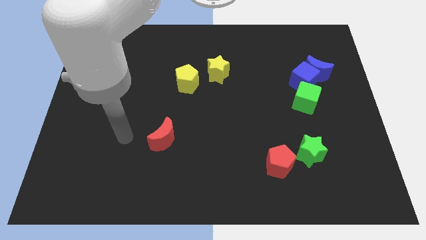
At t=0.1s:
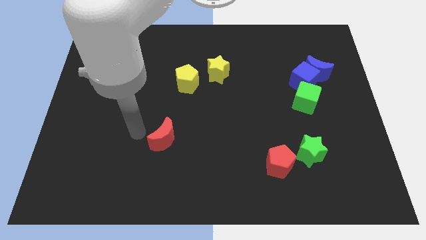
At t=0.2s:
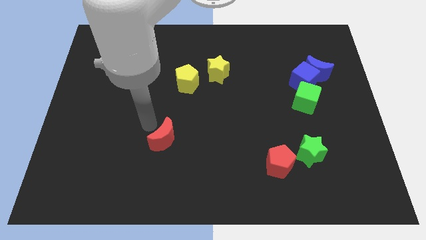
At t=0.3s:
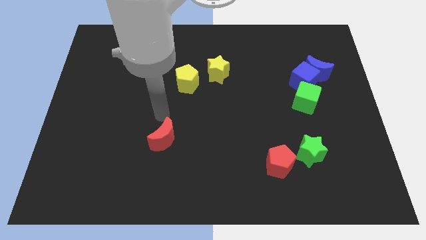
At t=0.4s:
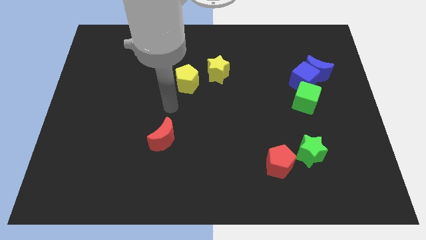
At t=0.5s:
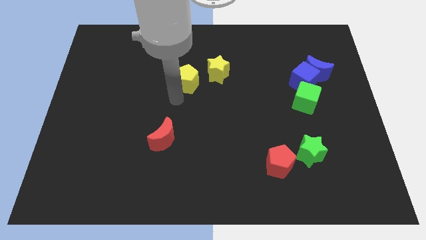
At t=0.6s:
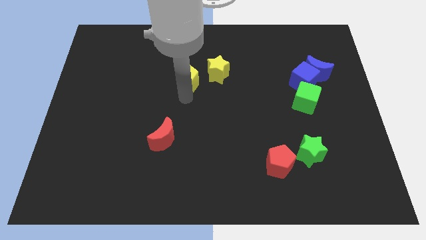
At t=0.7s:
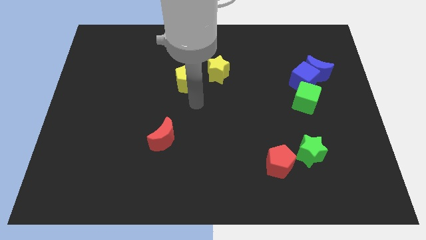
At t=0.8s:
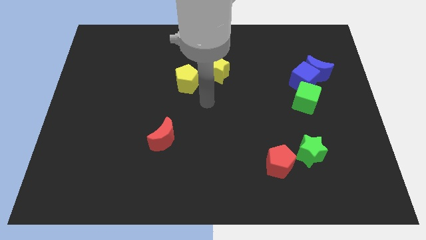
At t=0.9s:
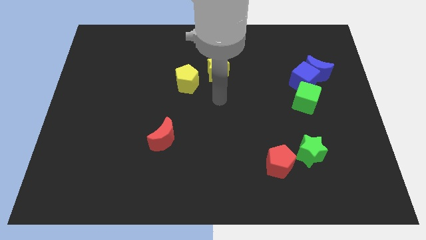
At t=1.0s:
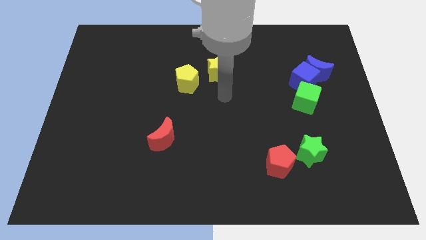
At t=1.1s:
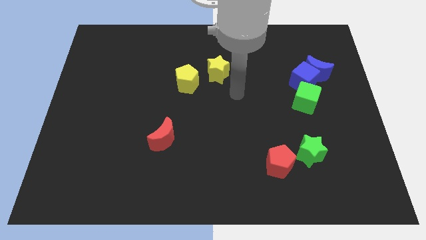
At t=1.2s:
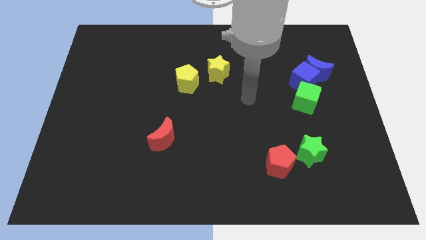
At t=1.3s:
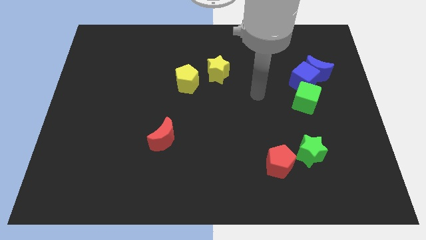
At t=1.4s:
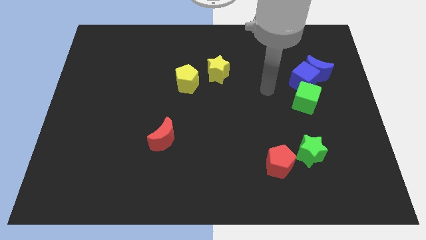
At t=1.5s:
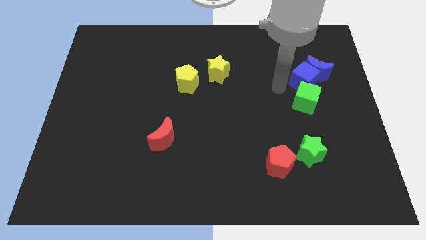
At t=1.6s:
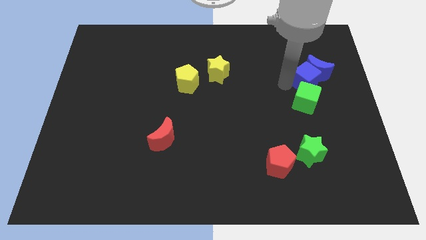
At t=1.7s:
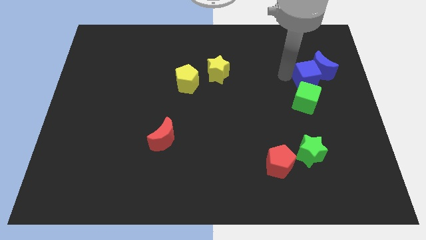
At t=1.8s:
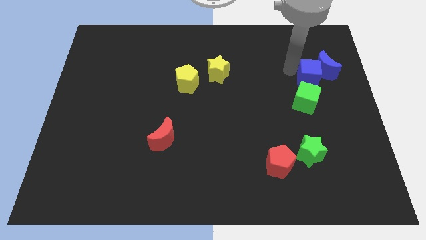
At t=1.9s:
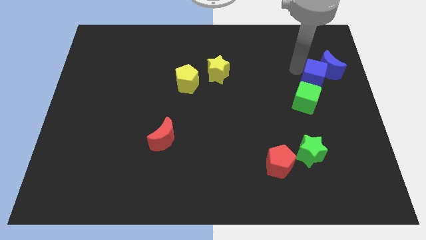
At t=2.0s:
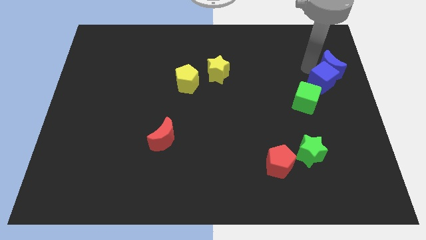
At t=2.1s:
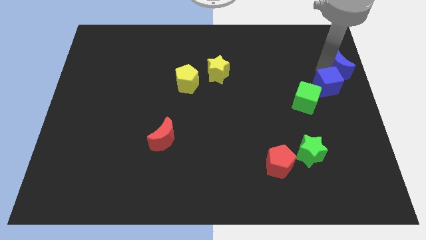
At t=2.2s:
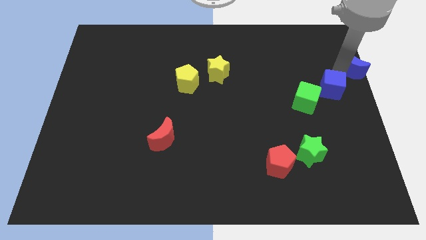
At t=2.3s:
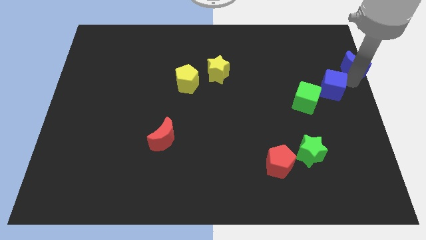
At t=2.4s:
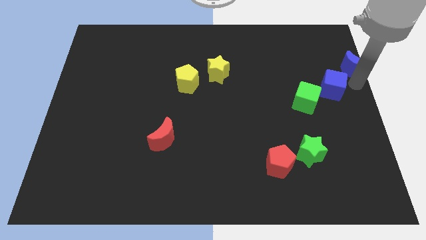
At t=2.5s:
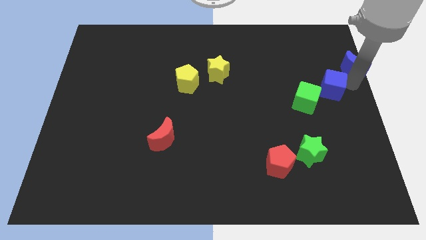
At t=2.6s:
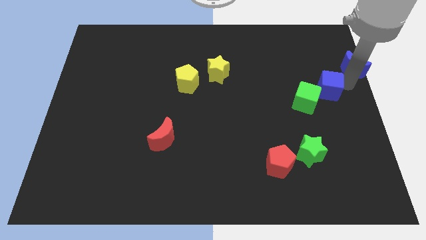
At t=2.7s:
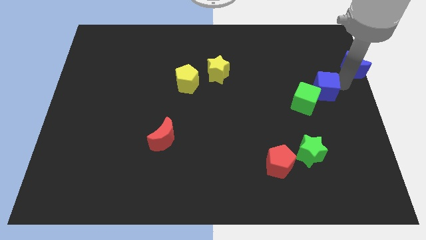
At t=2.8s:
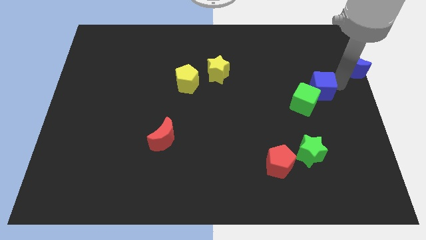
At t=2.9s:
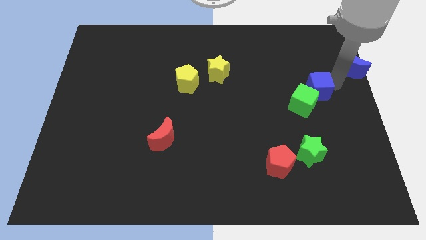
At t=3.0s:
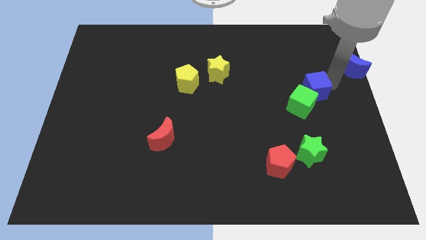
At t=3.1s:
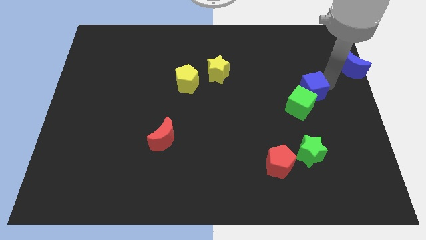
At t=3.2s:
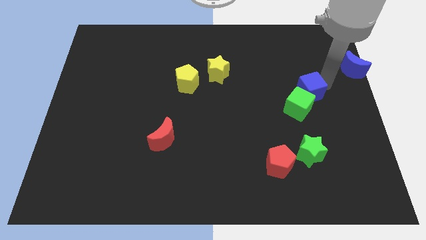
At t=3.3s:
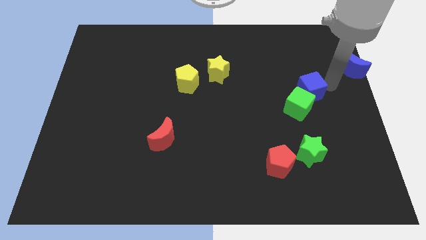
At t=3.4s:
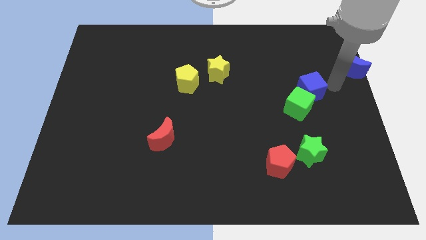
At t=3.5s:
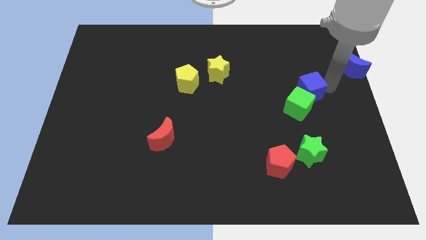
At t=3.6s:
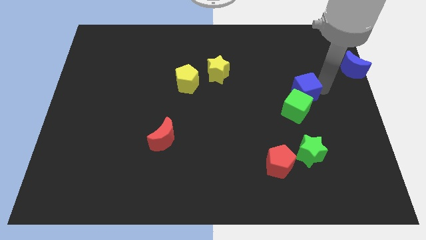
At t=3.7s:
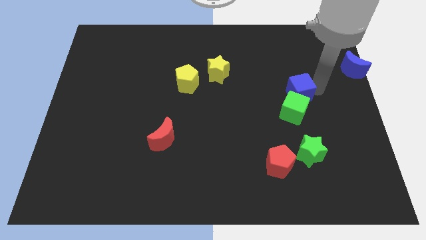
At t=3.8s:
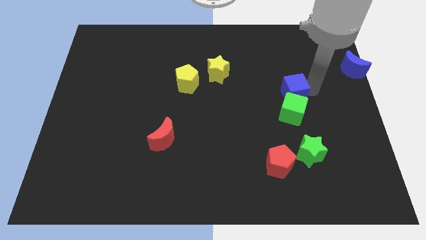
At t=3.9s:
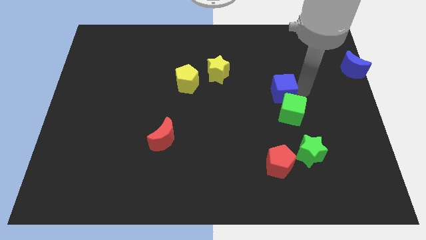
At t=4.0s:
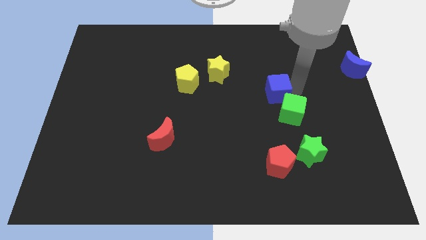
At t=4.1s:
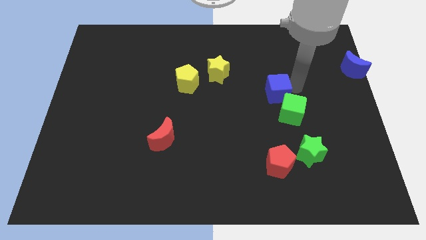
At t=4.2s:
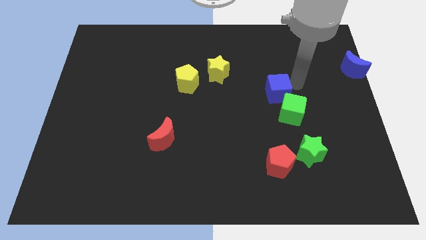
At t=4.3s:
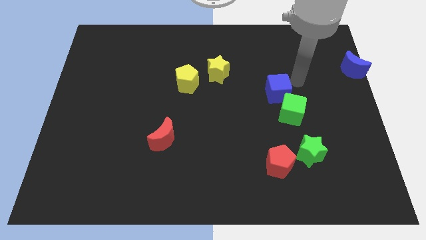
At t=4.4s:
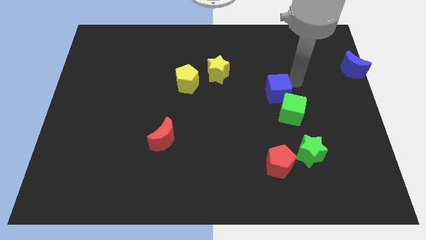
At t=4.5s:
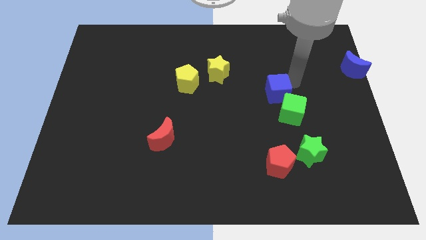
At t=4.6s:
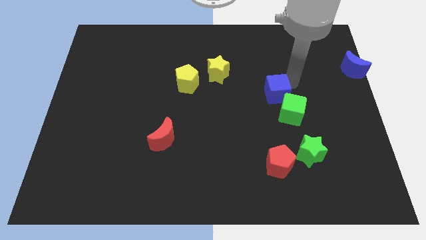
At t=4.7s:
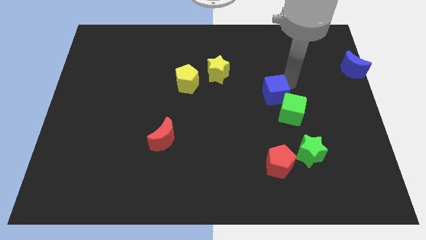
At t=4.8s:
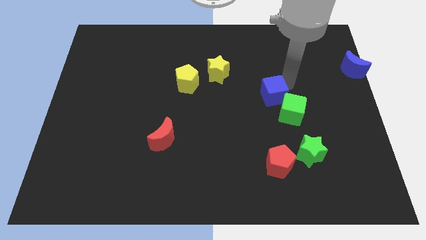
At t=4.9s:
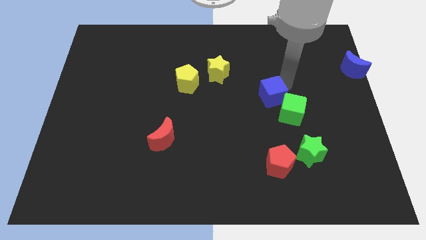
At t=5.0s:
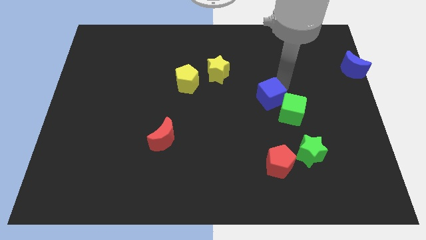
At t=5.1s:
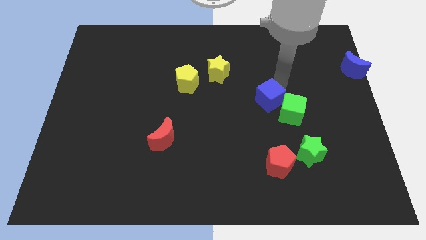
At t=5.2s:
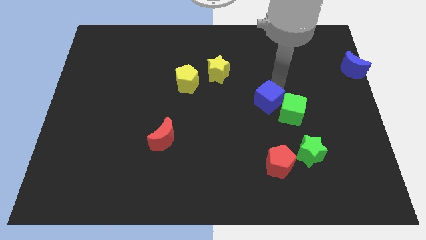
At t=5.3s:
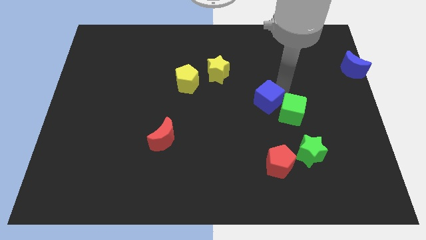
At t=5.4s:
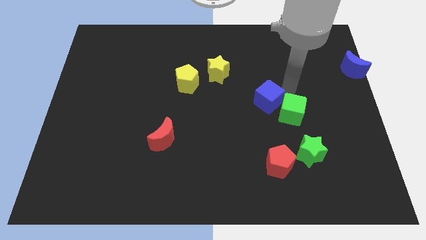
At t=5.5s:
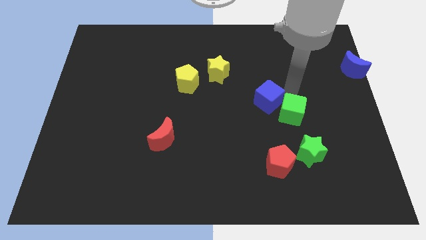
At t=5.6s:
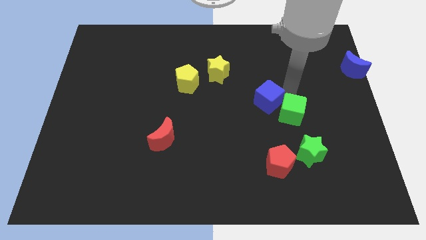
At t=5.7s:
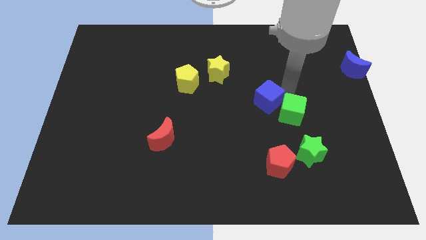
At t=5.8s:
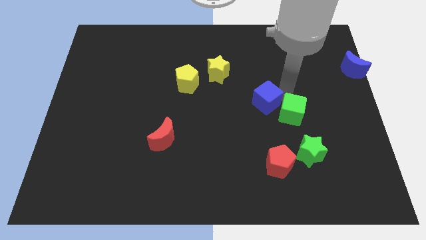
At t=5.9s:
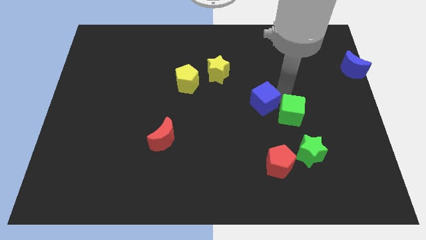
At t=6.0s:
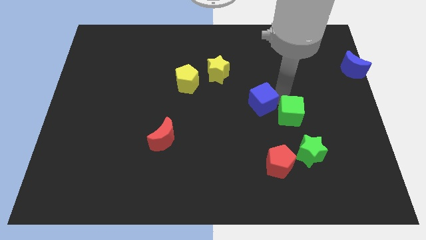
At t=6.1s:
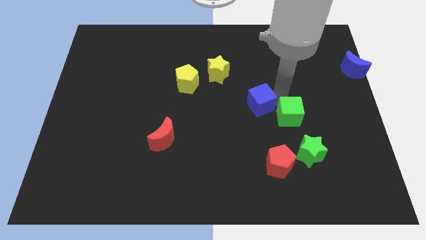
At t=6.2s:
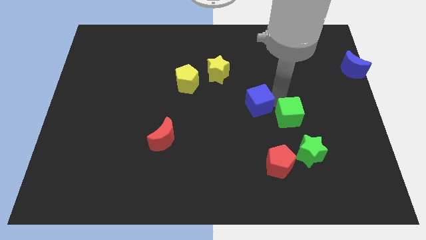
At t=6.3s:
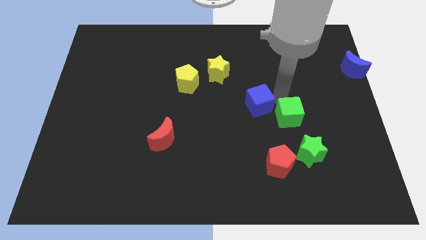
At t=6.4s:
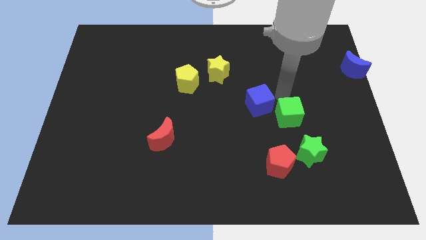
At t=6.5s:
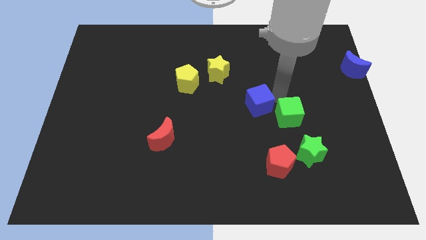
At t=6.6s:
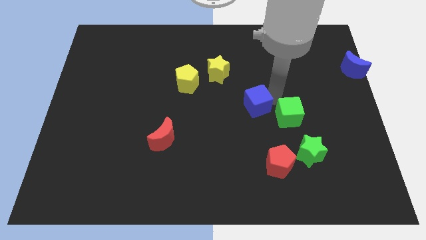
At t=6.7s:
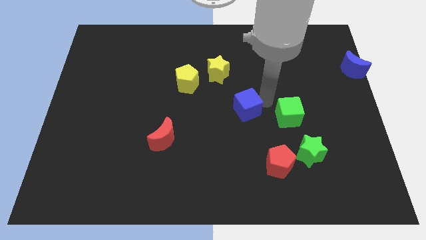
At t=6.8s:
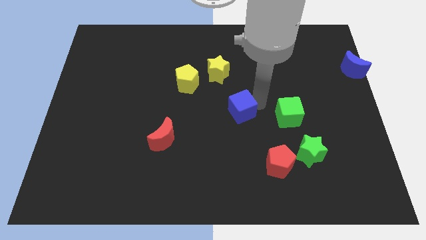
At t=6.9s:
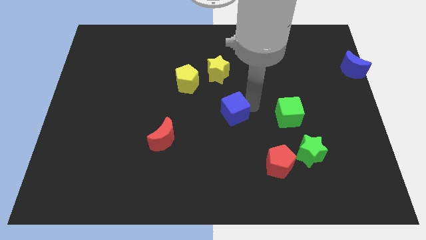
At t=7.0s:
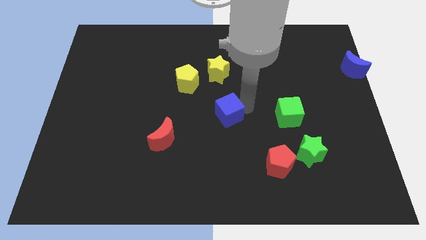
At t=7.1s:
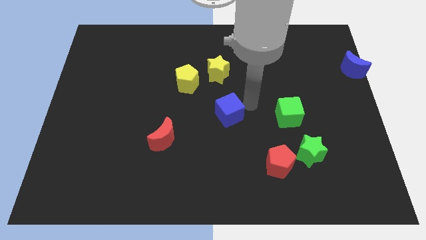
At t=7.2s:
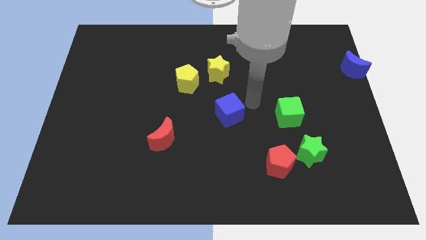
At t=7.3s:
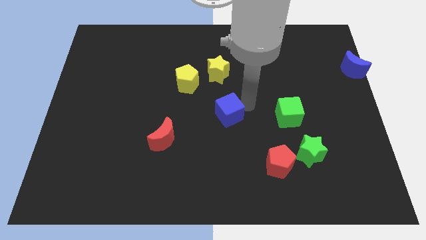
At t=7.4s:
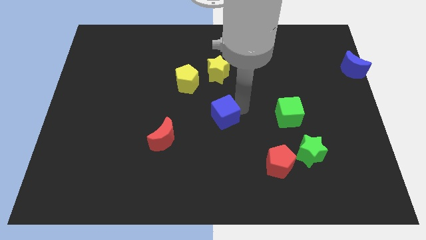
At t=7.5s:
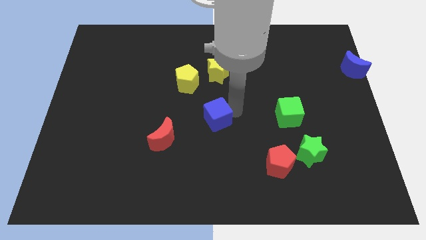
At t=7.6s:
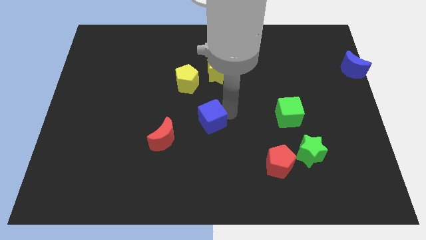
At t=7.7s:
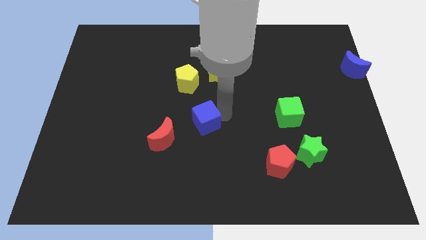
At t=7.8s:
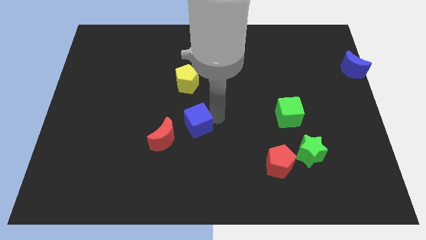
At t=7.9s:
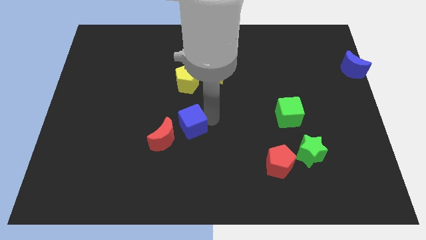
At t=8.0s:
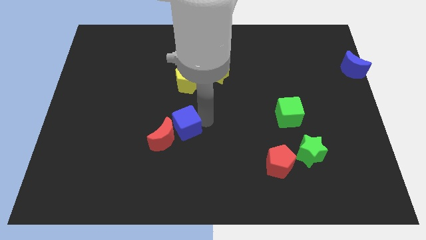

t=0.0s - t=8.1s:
slide the blue cube towards the red moon
